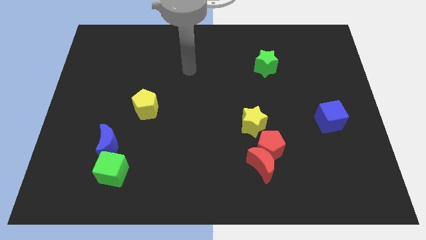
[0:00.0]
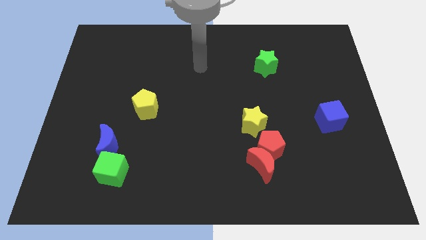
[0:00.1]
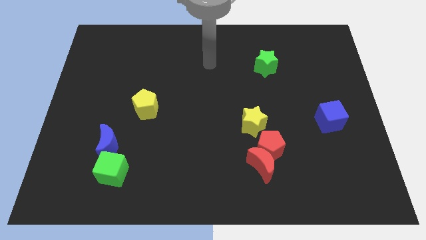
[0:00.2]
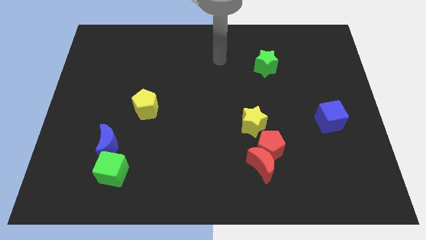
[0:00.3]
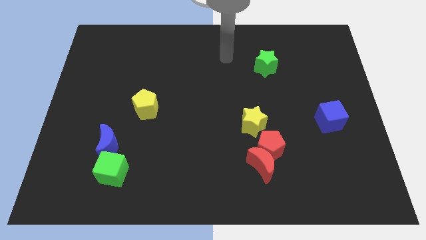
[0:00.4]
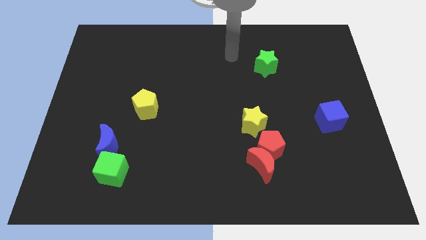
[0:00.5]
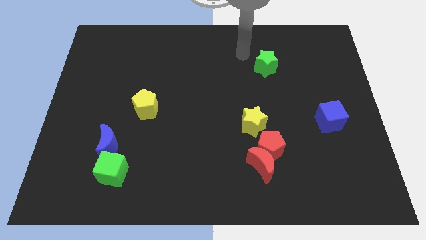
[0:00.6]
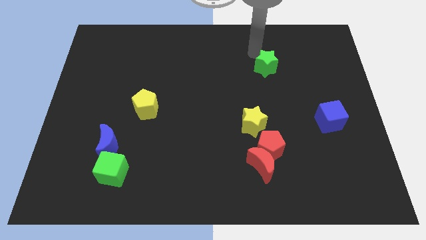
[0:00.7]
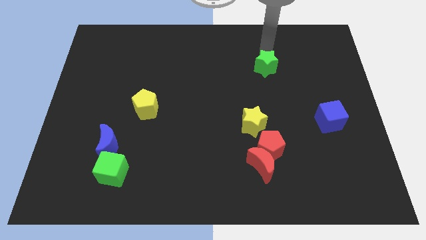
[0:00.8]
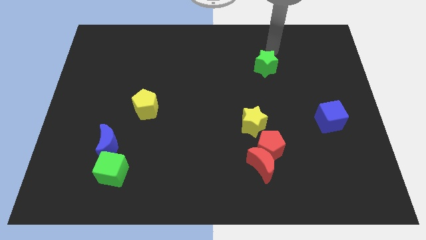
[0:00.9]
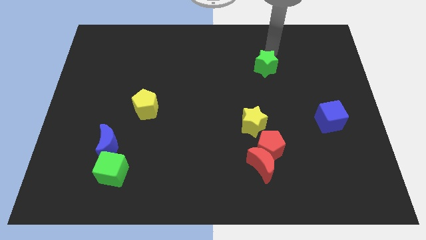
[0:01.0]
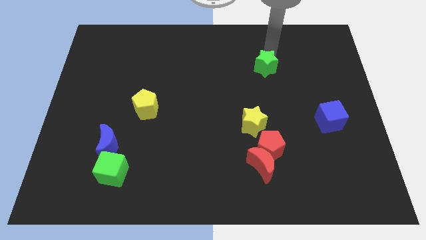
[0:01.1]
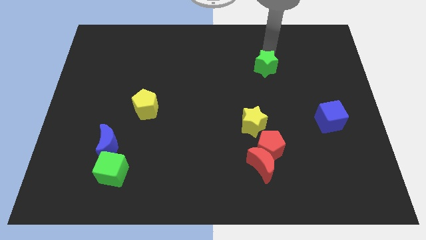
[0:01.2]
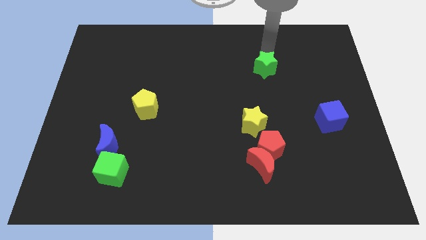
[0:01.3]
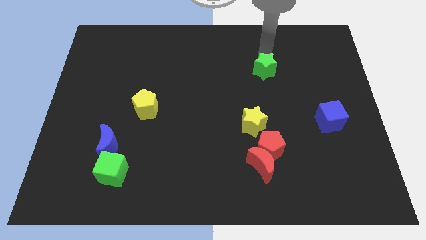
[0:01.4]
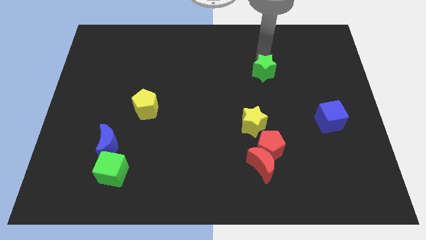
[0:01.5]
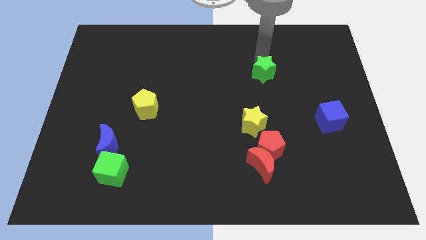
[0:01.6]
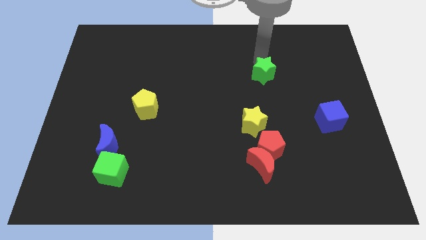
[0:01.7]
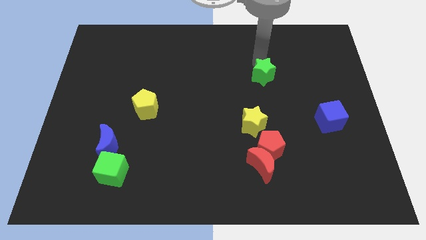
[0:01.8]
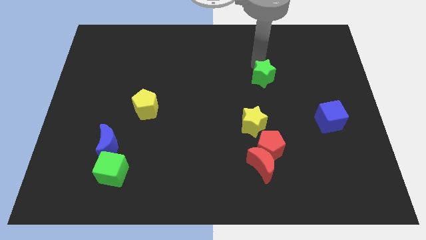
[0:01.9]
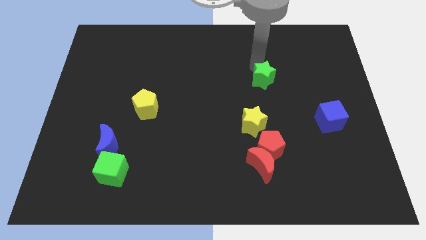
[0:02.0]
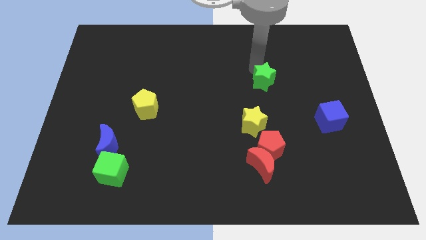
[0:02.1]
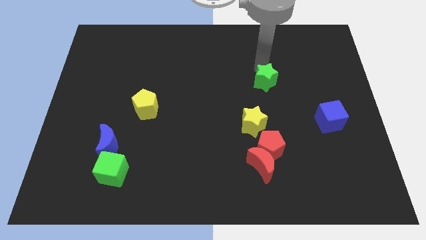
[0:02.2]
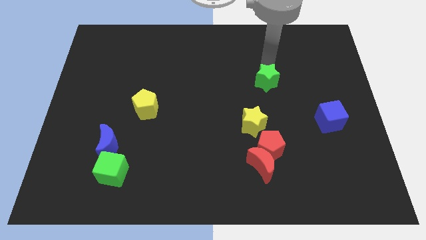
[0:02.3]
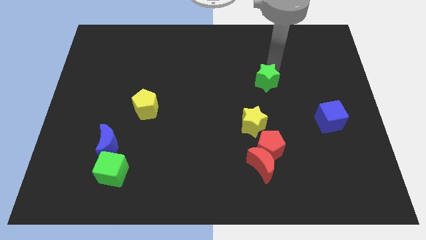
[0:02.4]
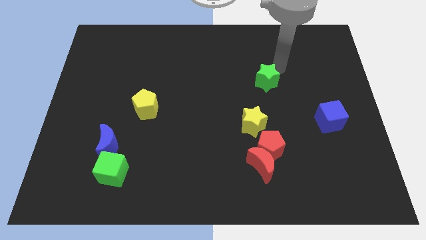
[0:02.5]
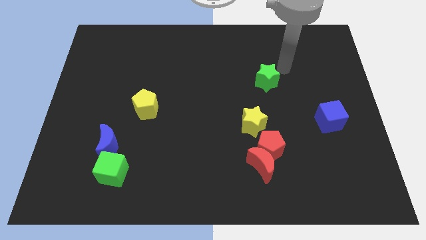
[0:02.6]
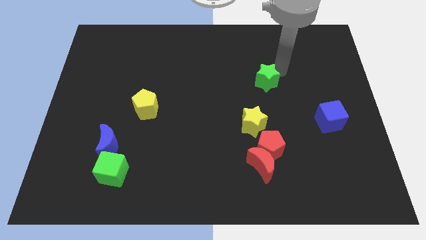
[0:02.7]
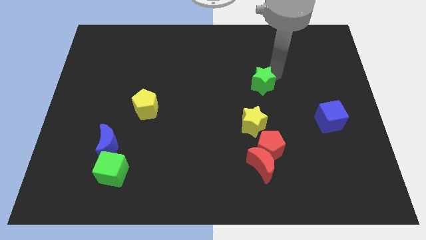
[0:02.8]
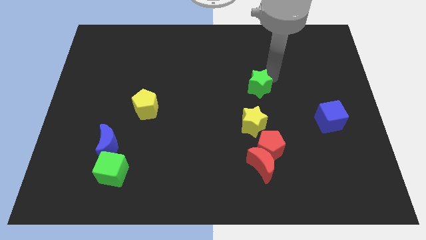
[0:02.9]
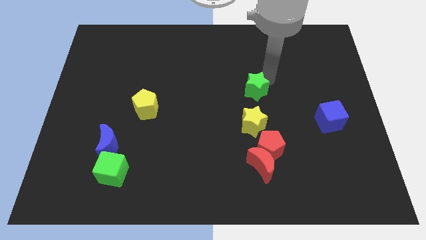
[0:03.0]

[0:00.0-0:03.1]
slightly move the green star downwards and left diagonally

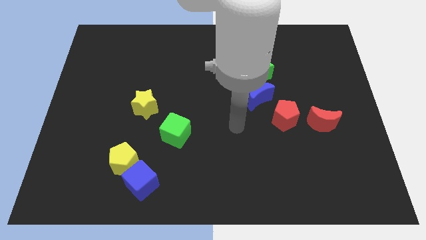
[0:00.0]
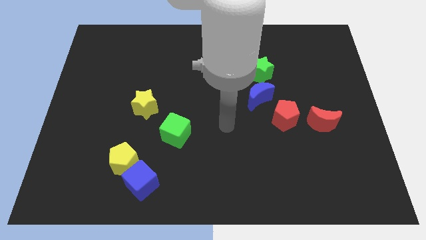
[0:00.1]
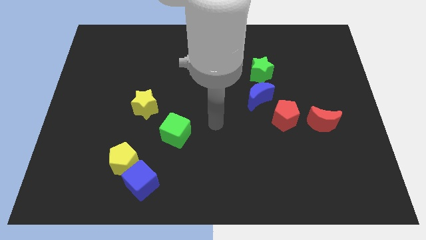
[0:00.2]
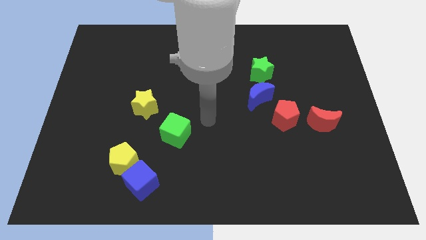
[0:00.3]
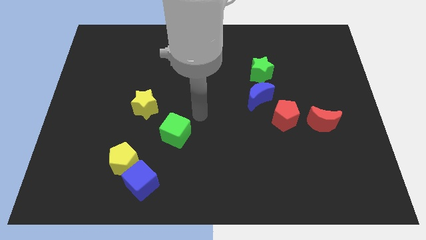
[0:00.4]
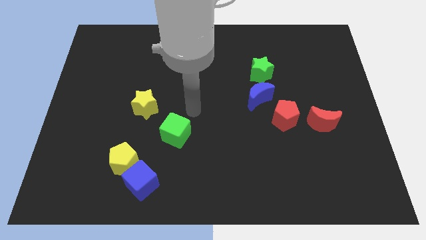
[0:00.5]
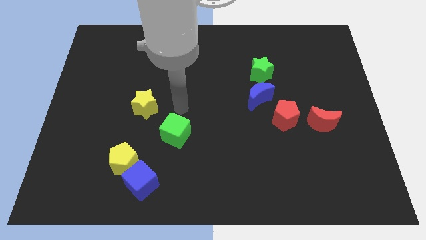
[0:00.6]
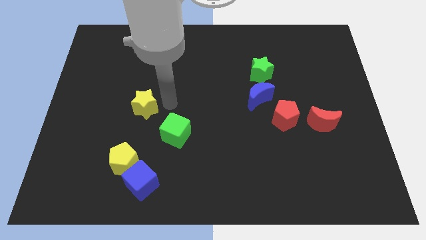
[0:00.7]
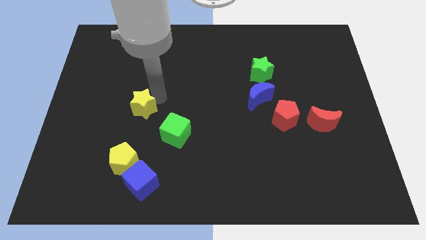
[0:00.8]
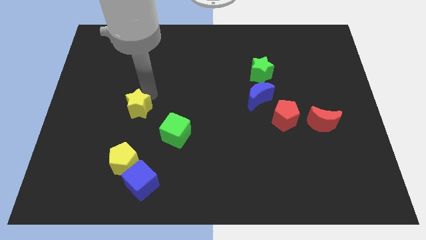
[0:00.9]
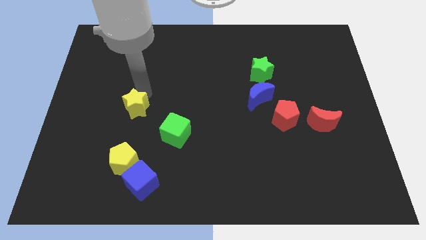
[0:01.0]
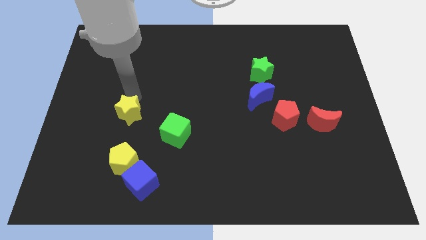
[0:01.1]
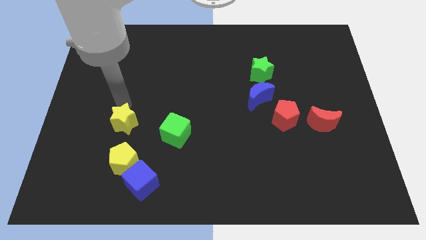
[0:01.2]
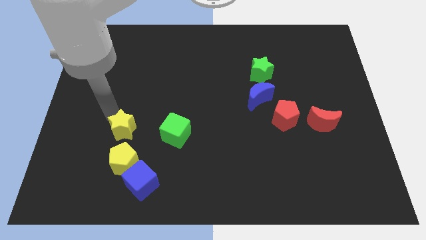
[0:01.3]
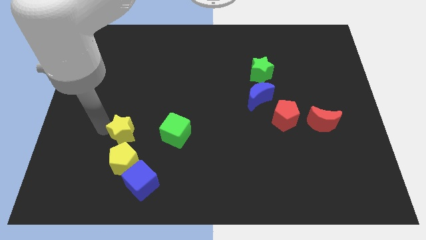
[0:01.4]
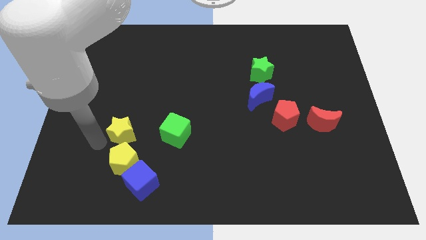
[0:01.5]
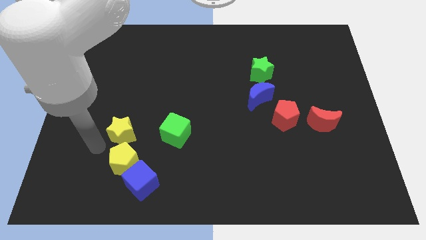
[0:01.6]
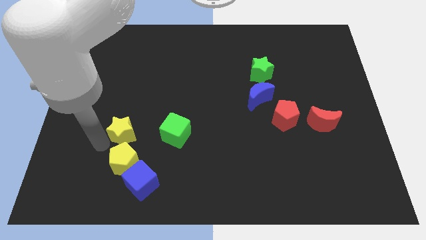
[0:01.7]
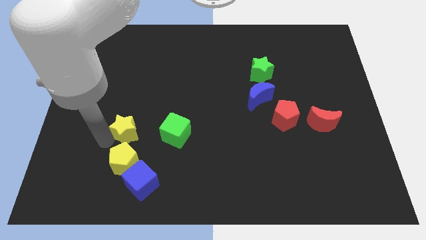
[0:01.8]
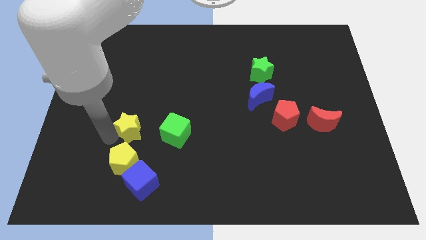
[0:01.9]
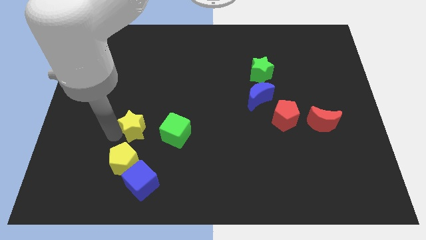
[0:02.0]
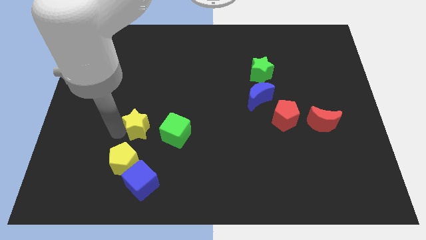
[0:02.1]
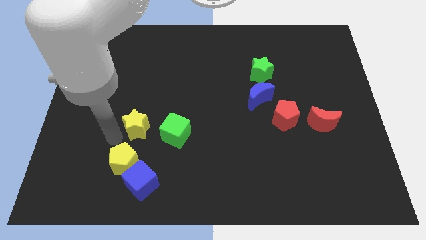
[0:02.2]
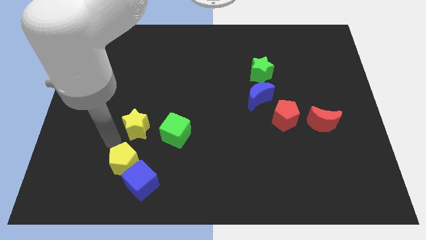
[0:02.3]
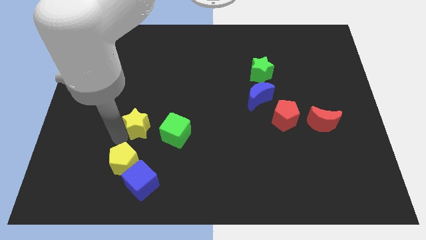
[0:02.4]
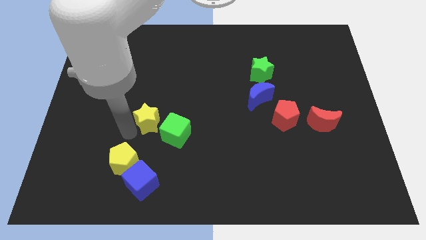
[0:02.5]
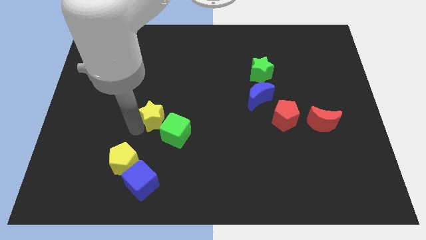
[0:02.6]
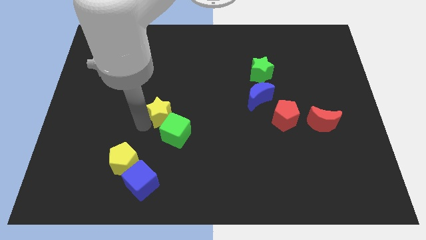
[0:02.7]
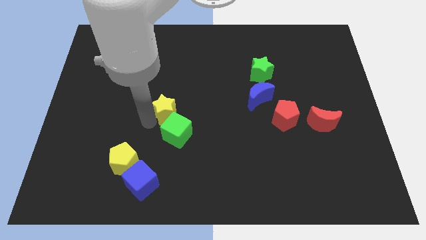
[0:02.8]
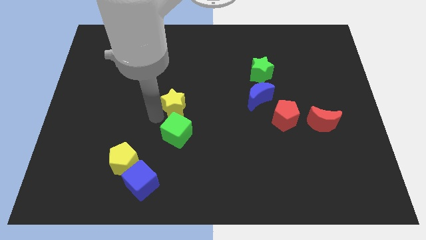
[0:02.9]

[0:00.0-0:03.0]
move the yellow star a little bit to the right

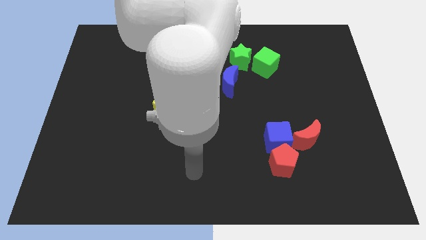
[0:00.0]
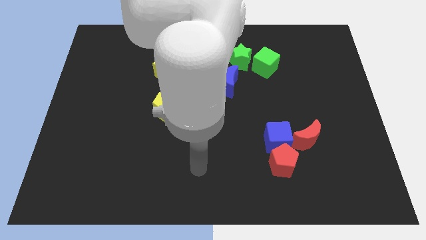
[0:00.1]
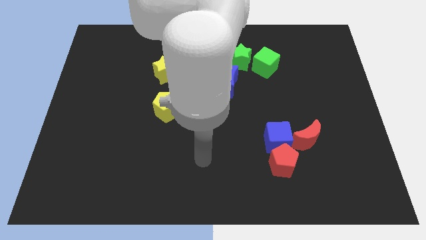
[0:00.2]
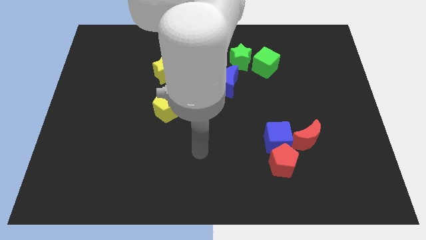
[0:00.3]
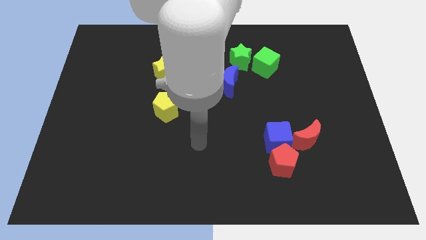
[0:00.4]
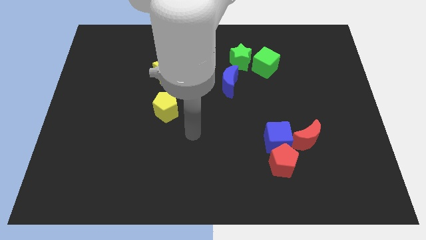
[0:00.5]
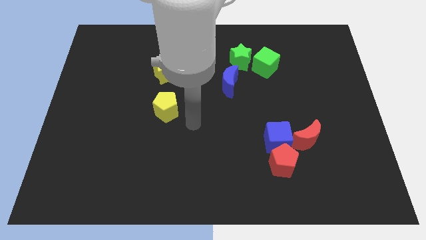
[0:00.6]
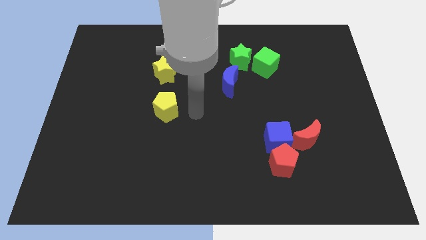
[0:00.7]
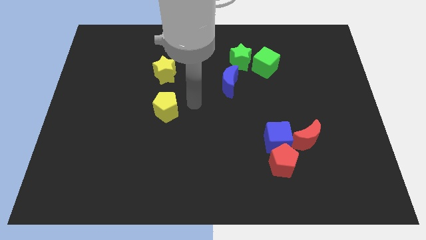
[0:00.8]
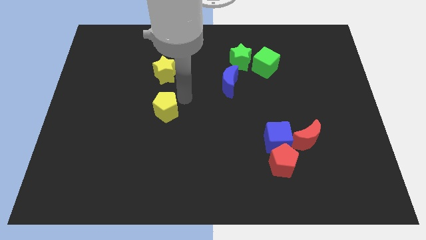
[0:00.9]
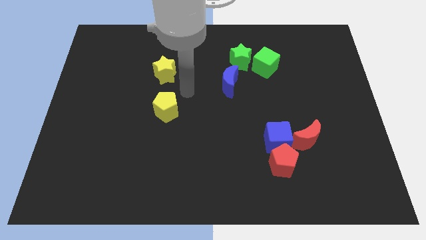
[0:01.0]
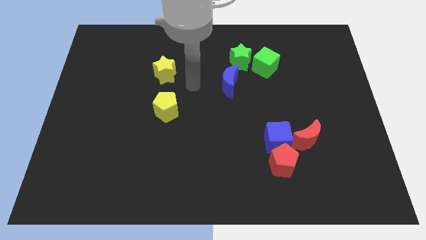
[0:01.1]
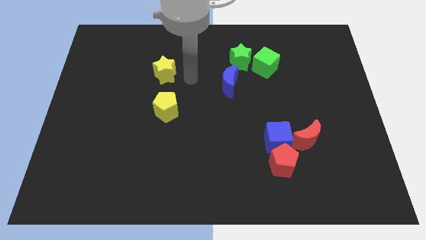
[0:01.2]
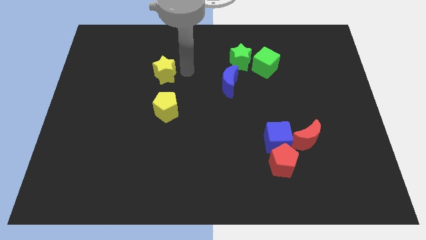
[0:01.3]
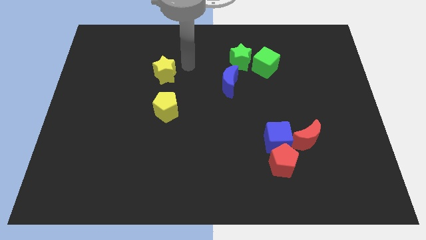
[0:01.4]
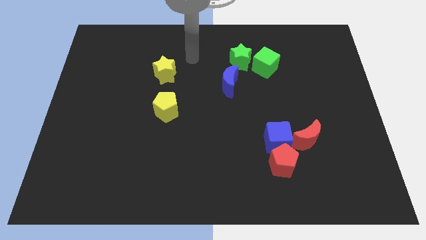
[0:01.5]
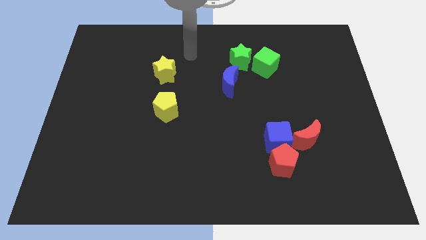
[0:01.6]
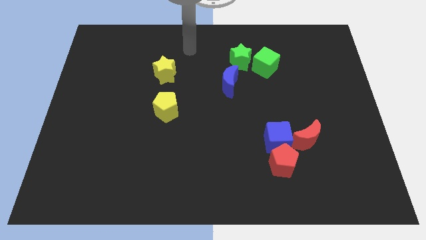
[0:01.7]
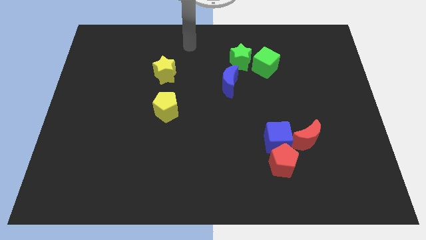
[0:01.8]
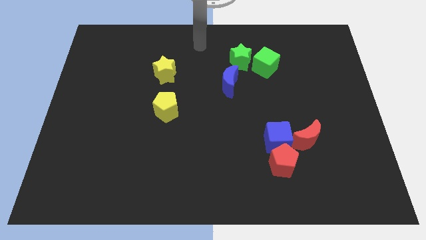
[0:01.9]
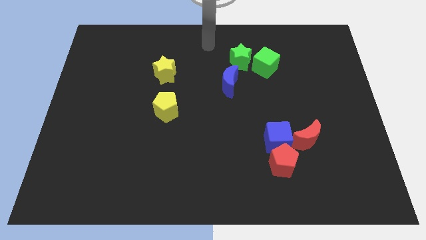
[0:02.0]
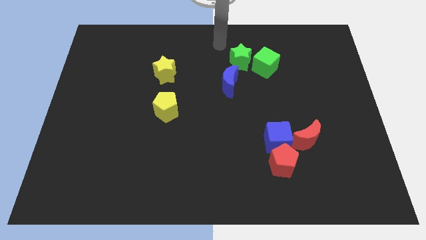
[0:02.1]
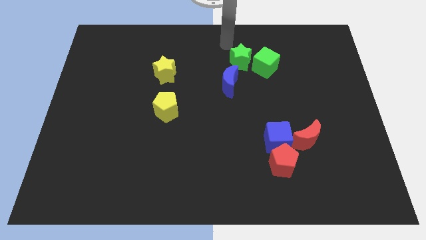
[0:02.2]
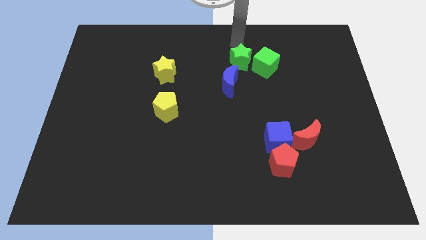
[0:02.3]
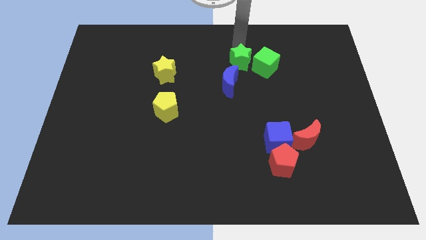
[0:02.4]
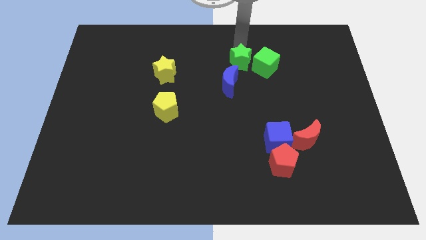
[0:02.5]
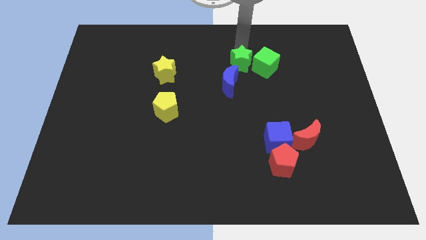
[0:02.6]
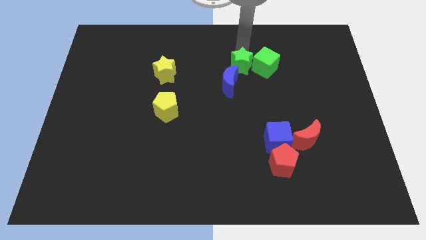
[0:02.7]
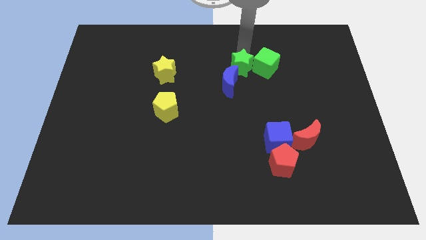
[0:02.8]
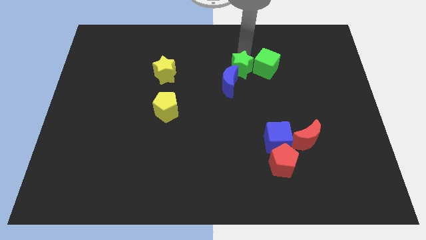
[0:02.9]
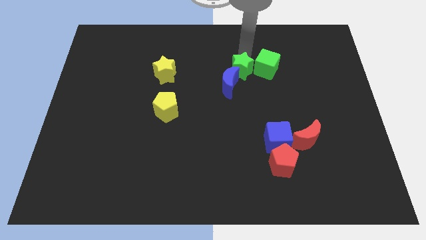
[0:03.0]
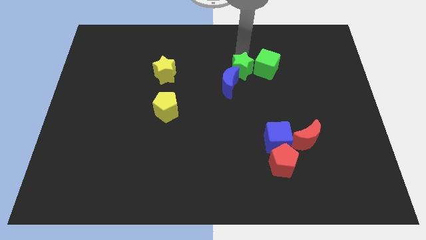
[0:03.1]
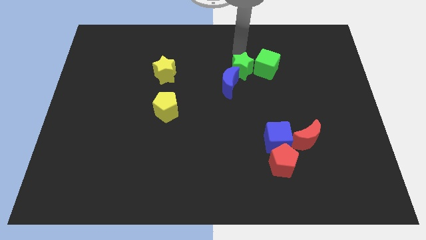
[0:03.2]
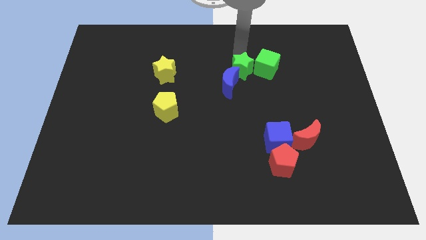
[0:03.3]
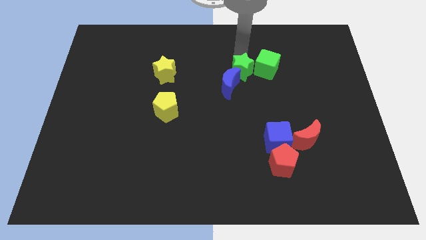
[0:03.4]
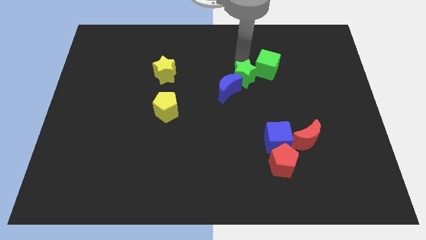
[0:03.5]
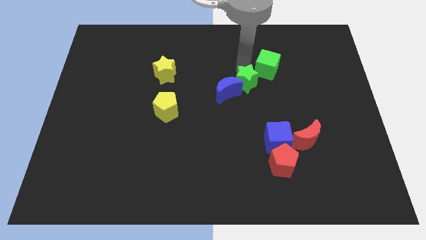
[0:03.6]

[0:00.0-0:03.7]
slightly push the green star down
